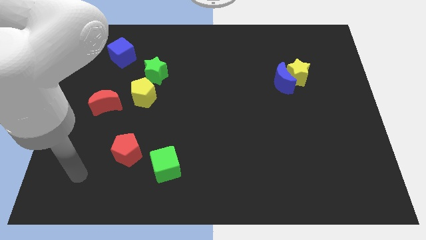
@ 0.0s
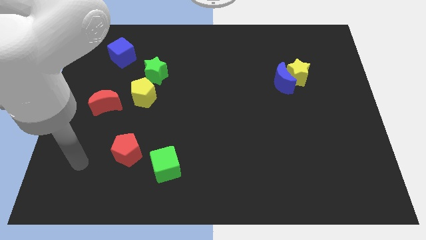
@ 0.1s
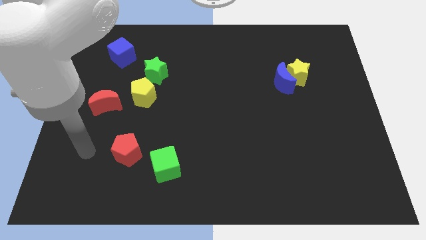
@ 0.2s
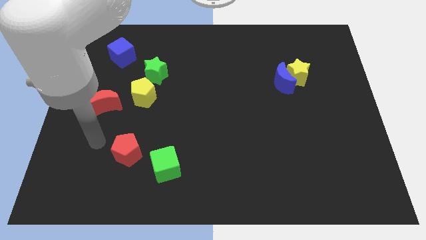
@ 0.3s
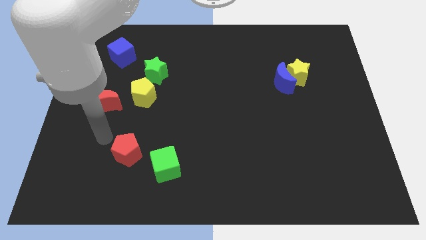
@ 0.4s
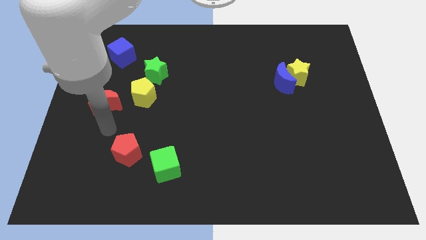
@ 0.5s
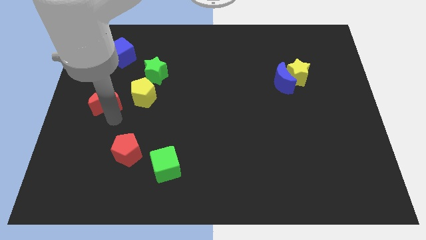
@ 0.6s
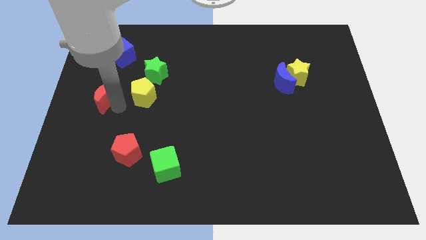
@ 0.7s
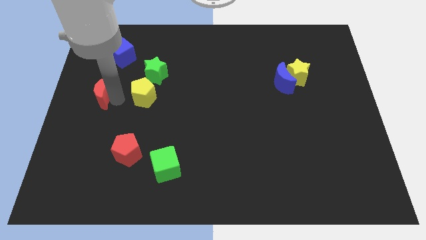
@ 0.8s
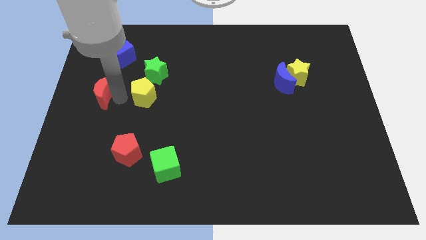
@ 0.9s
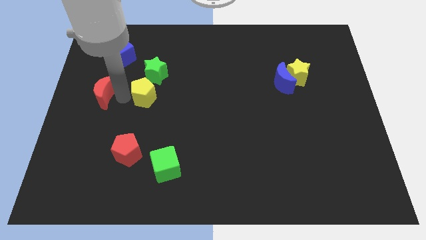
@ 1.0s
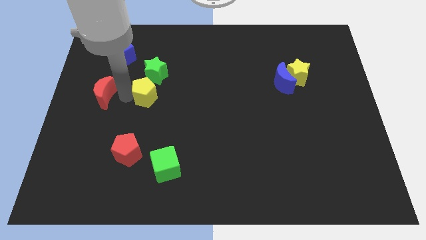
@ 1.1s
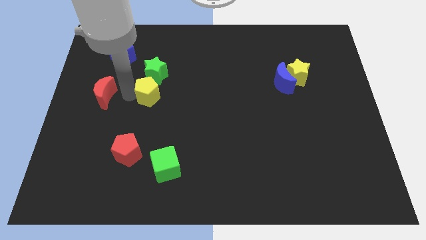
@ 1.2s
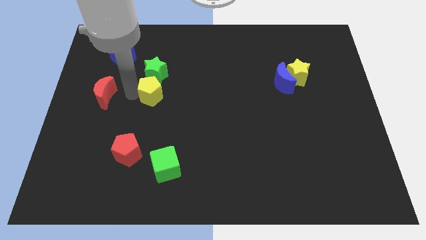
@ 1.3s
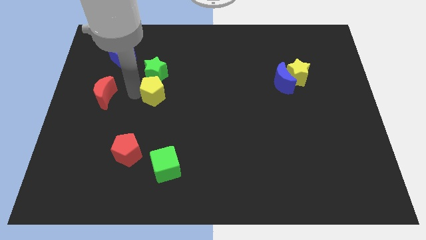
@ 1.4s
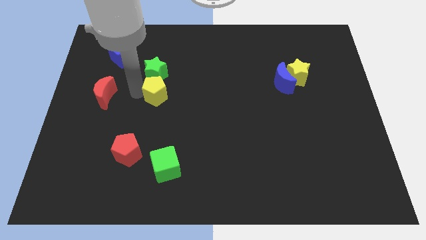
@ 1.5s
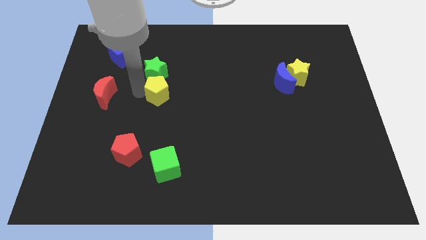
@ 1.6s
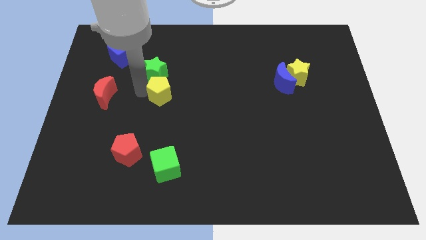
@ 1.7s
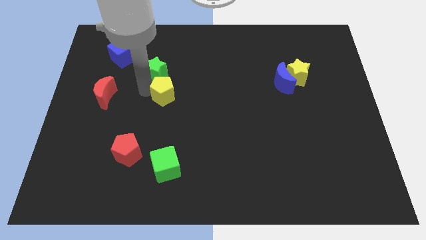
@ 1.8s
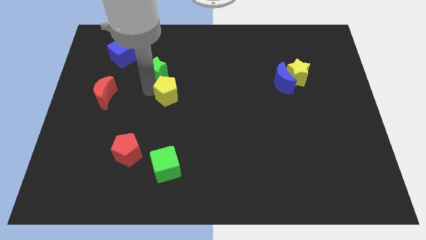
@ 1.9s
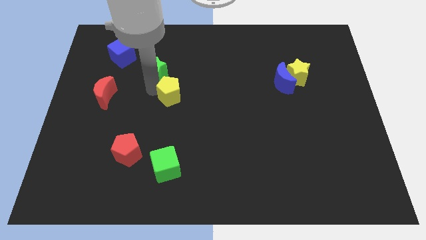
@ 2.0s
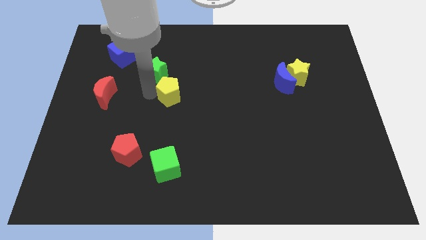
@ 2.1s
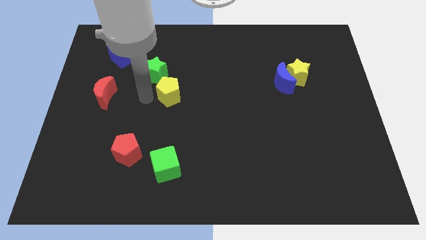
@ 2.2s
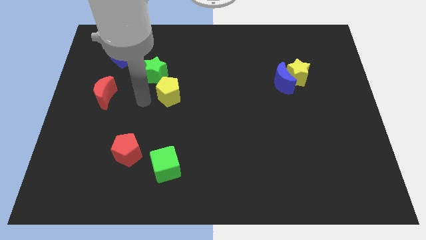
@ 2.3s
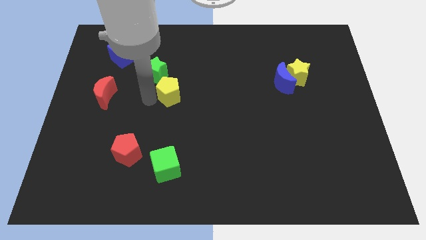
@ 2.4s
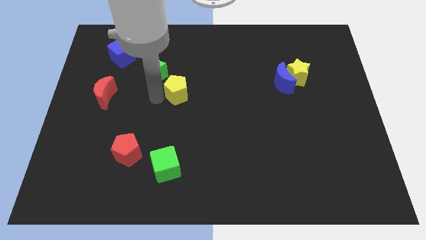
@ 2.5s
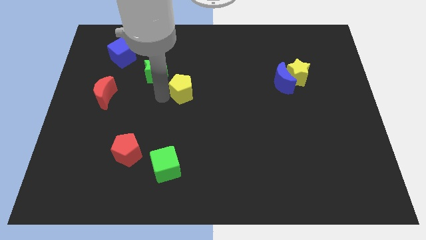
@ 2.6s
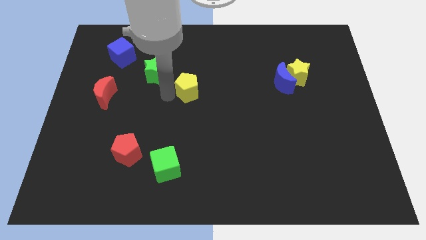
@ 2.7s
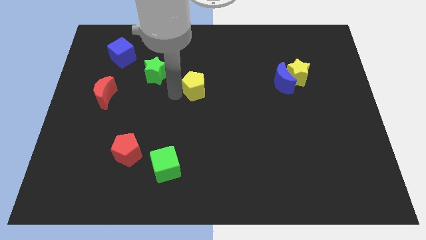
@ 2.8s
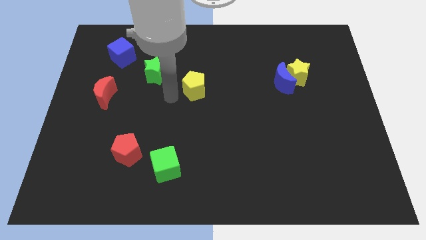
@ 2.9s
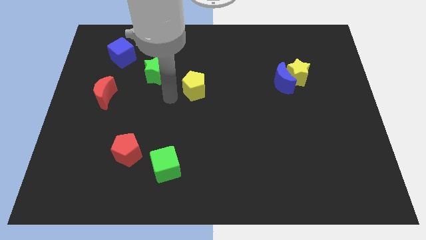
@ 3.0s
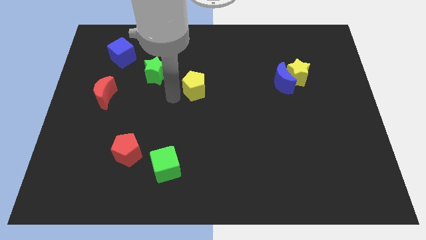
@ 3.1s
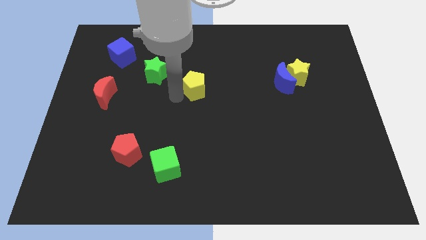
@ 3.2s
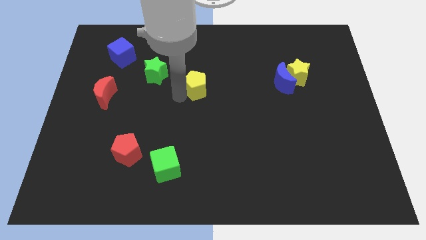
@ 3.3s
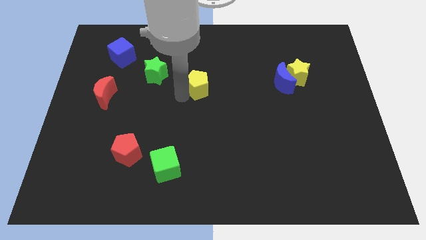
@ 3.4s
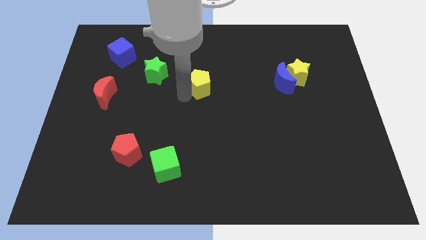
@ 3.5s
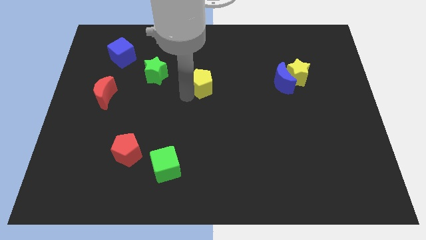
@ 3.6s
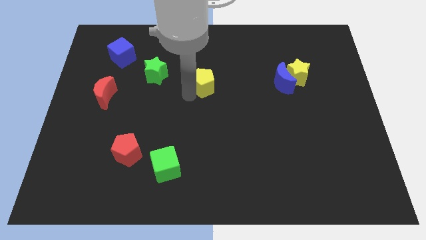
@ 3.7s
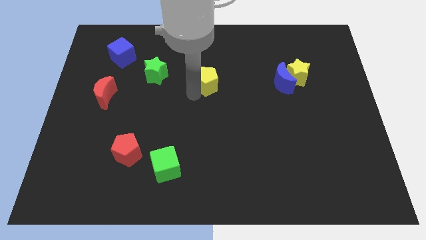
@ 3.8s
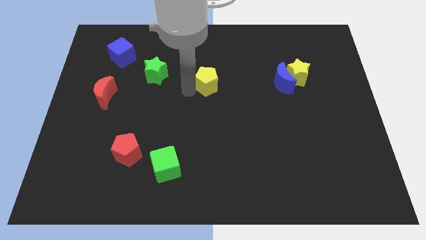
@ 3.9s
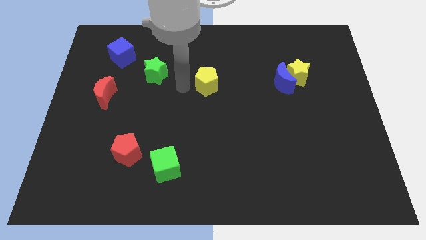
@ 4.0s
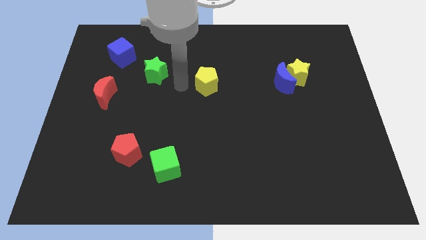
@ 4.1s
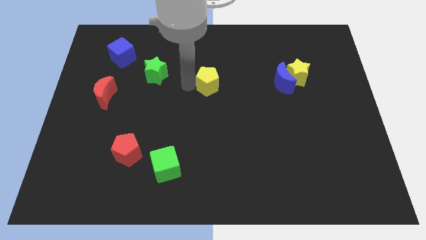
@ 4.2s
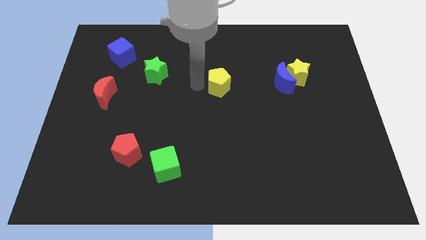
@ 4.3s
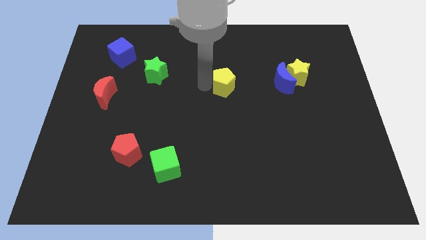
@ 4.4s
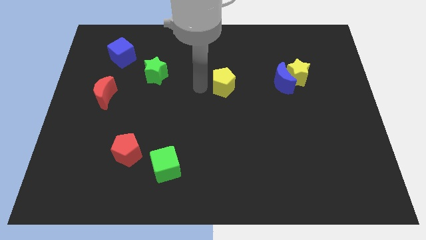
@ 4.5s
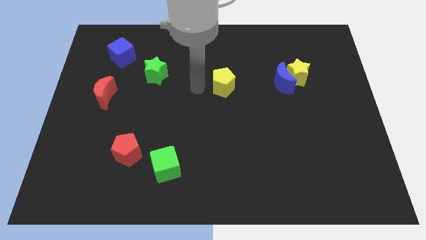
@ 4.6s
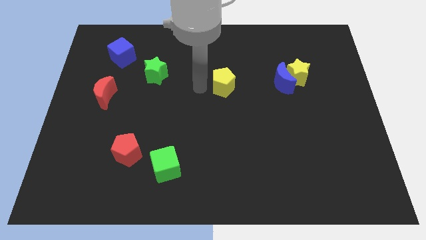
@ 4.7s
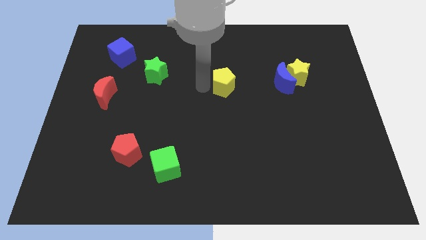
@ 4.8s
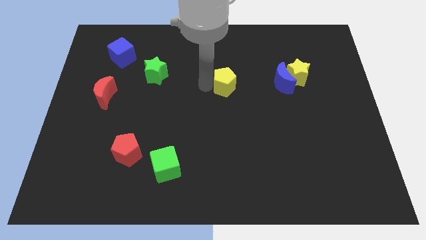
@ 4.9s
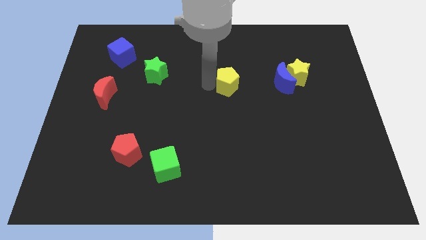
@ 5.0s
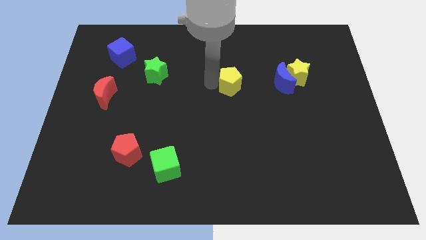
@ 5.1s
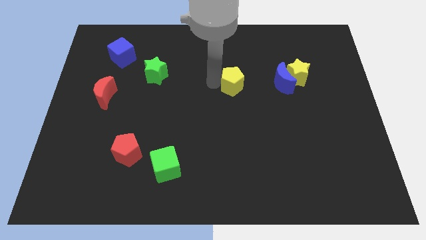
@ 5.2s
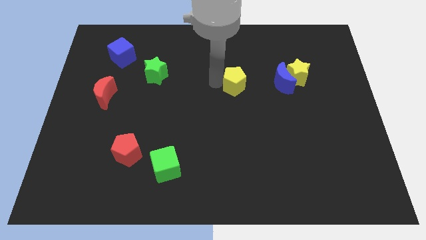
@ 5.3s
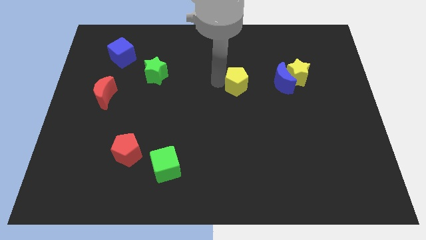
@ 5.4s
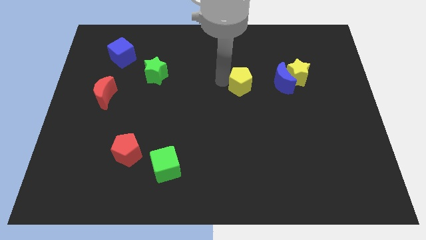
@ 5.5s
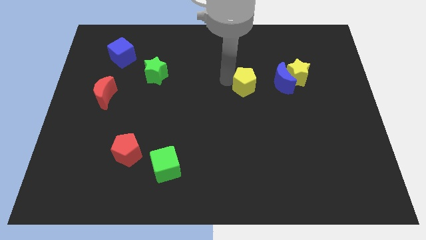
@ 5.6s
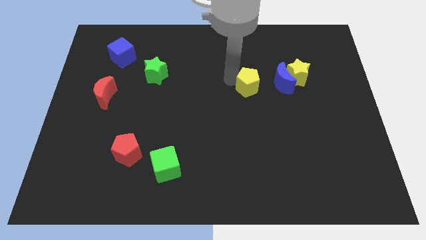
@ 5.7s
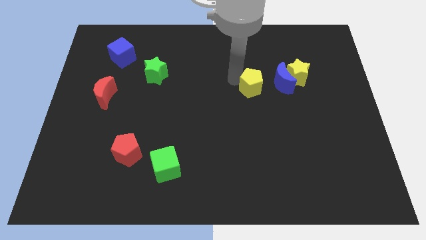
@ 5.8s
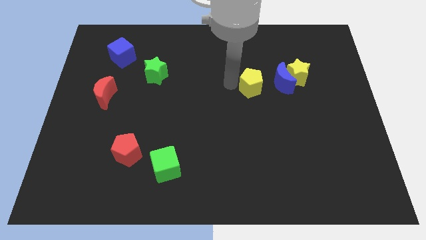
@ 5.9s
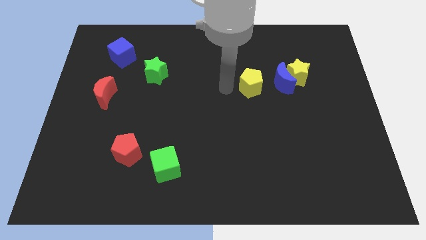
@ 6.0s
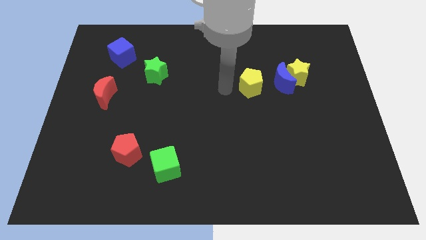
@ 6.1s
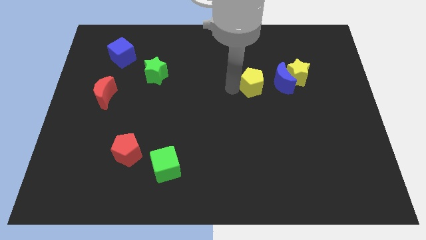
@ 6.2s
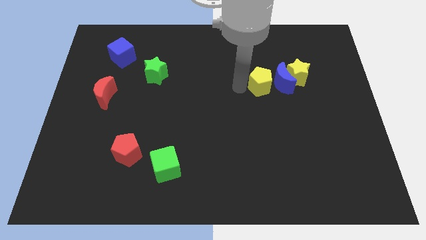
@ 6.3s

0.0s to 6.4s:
slide the yellow pentagon towards the blue moon

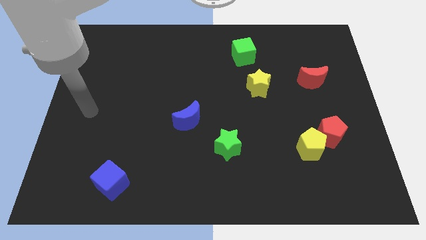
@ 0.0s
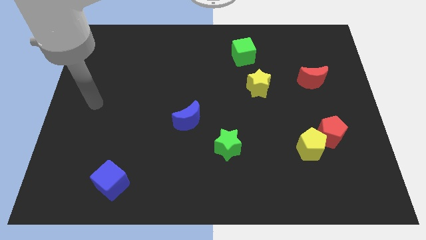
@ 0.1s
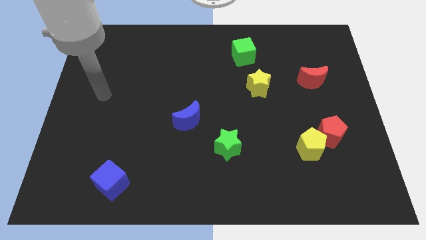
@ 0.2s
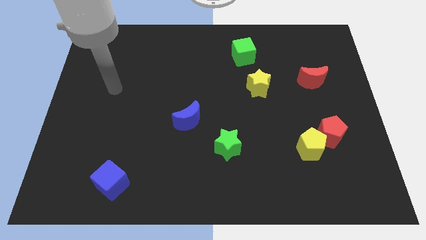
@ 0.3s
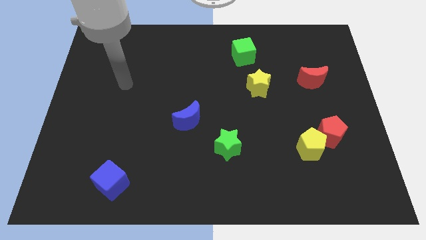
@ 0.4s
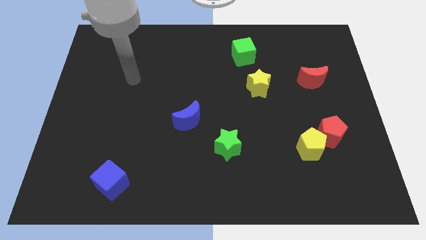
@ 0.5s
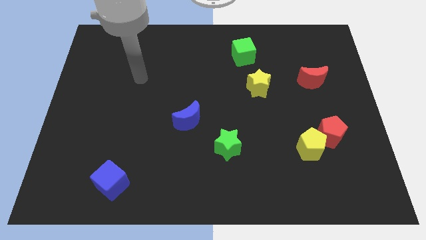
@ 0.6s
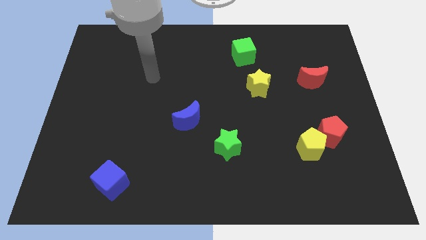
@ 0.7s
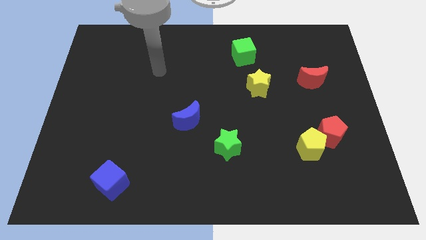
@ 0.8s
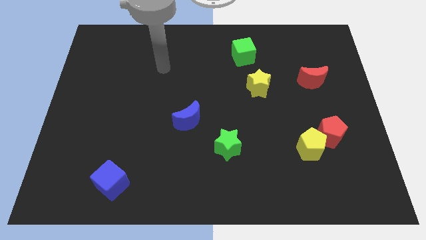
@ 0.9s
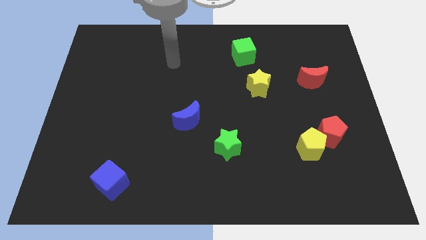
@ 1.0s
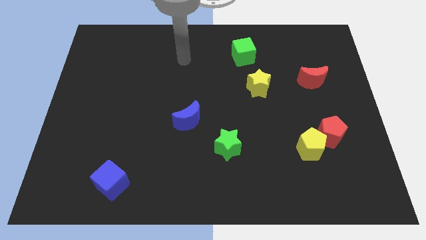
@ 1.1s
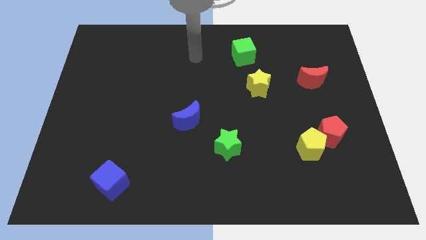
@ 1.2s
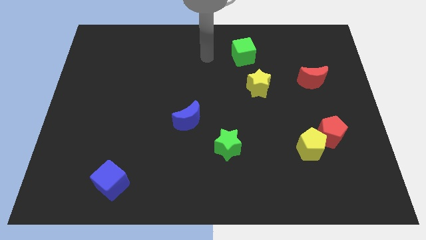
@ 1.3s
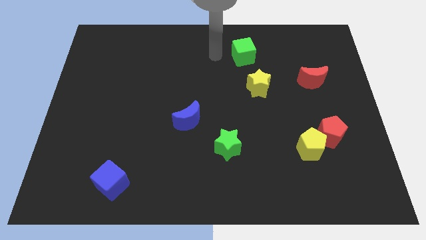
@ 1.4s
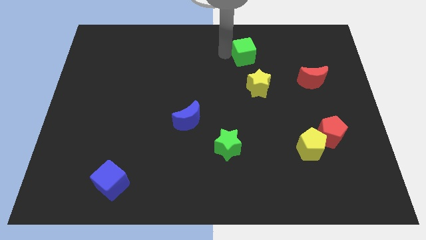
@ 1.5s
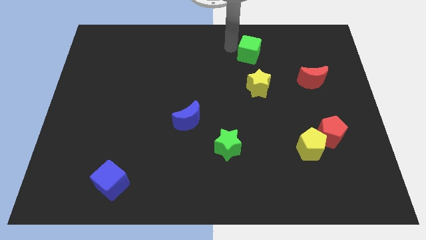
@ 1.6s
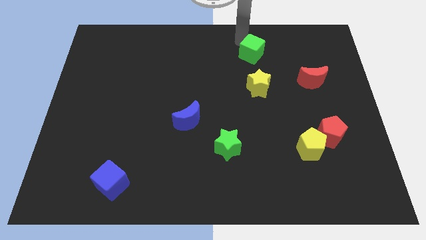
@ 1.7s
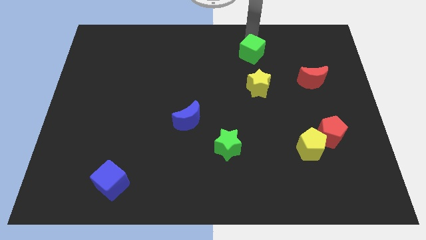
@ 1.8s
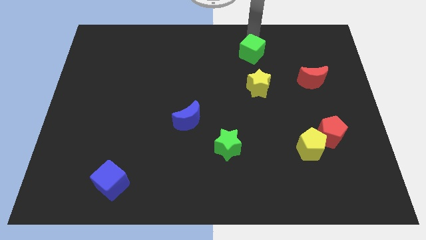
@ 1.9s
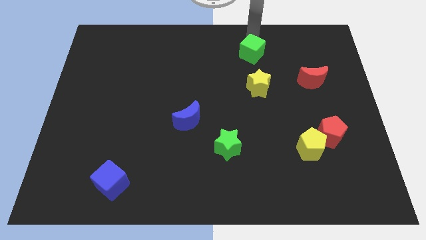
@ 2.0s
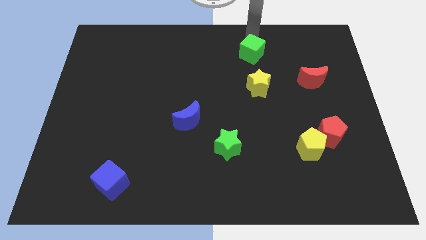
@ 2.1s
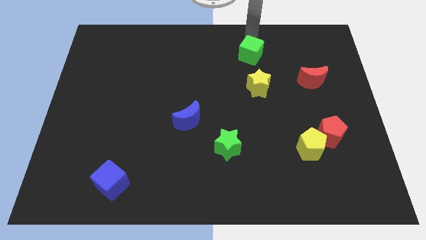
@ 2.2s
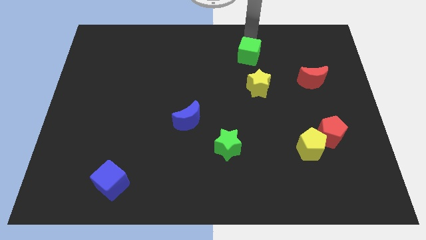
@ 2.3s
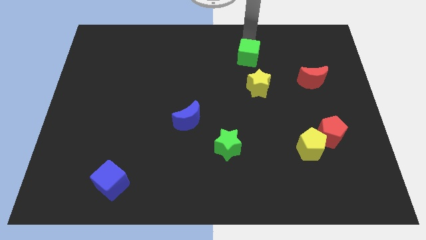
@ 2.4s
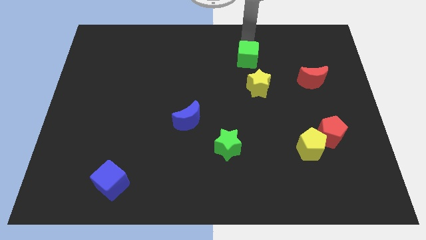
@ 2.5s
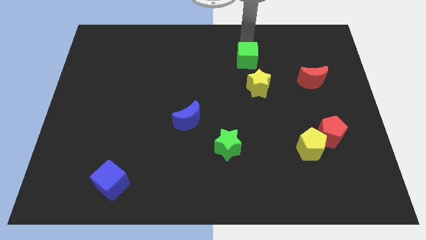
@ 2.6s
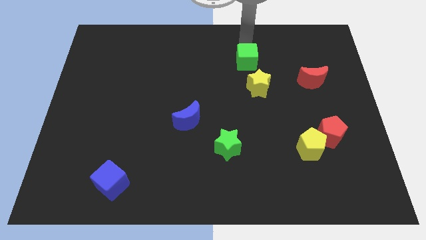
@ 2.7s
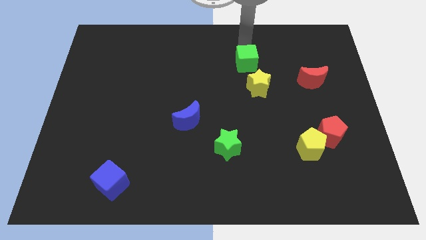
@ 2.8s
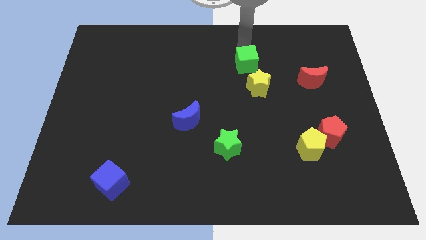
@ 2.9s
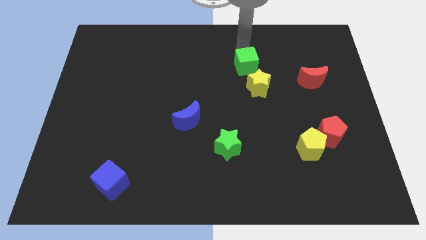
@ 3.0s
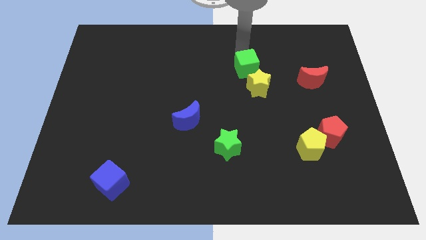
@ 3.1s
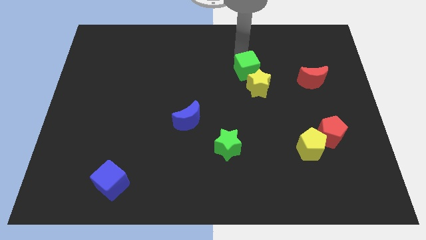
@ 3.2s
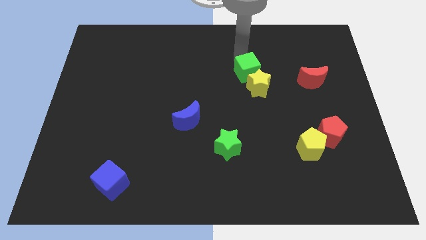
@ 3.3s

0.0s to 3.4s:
slide the green cube close to the yellow star
